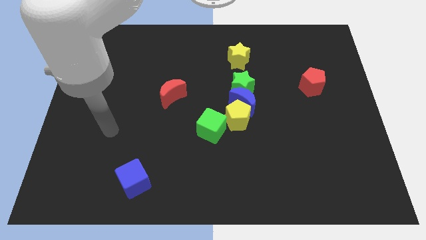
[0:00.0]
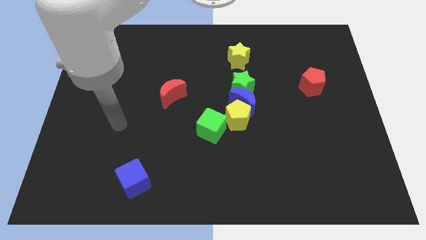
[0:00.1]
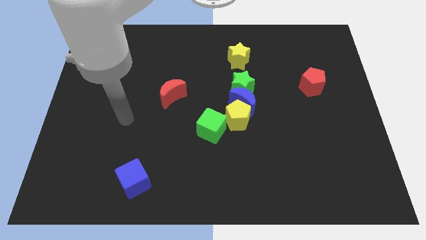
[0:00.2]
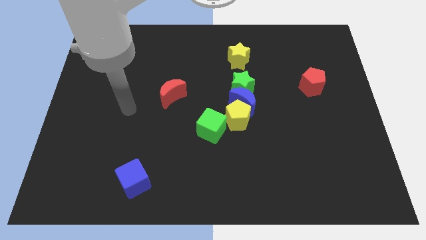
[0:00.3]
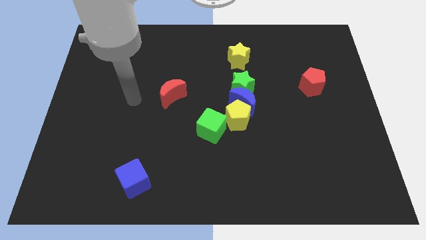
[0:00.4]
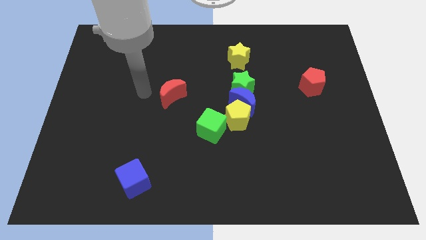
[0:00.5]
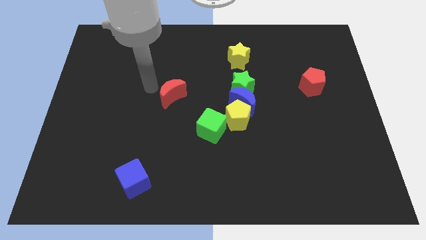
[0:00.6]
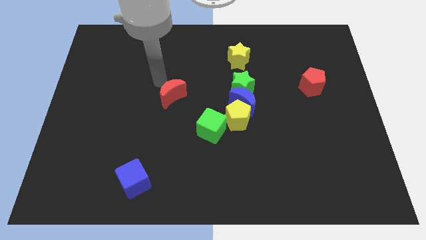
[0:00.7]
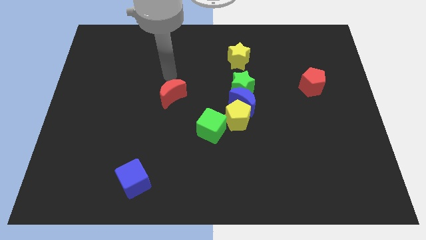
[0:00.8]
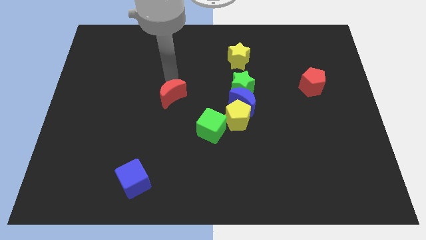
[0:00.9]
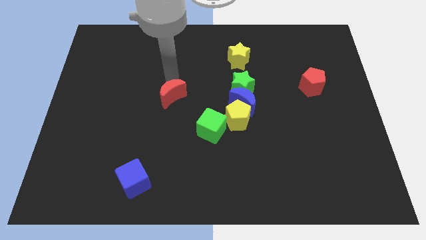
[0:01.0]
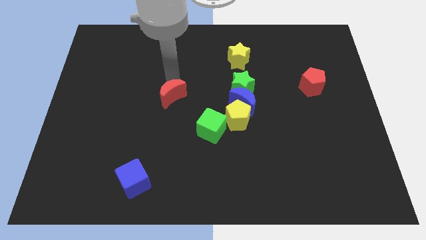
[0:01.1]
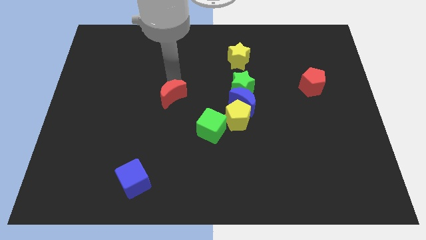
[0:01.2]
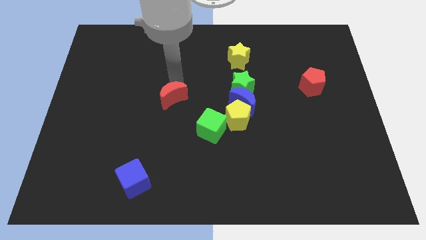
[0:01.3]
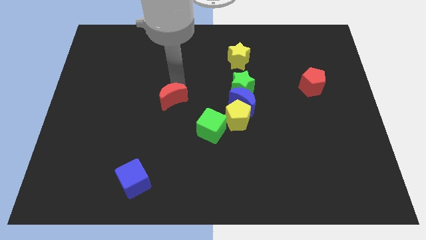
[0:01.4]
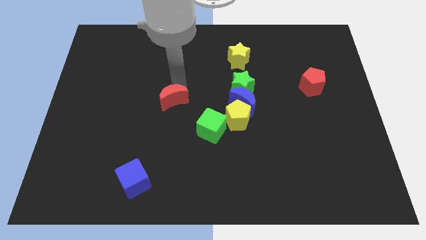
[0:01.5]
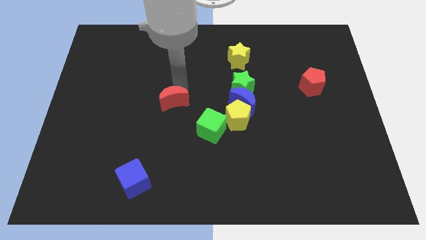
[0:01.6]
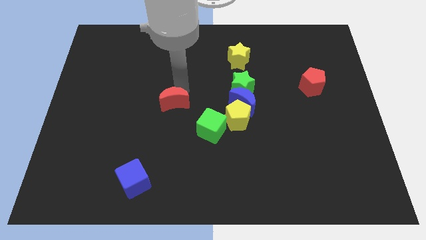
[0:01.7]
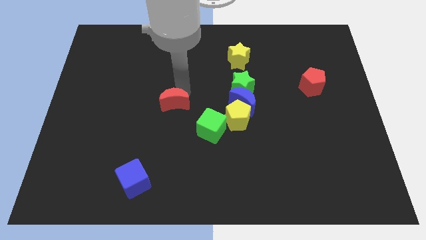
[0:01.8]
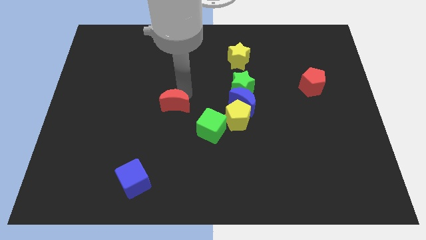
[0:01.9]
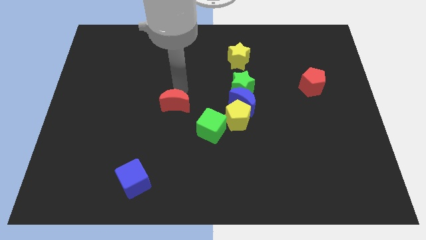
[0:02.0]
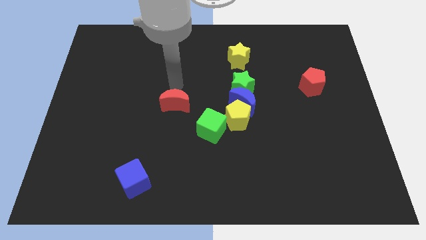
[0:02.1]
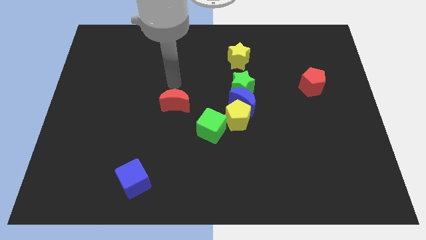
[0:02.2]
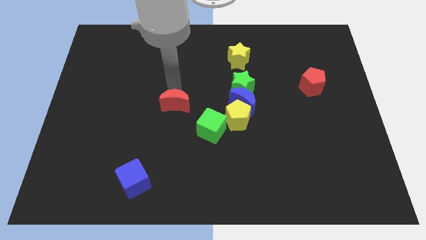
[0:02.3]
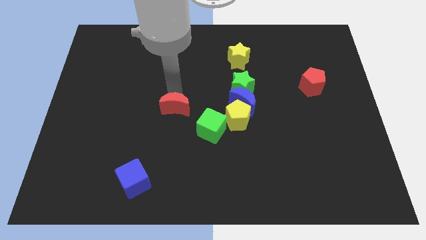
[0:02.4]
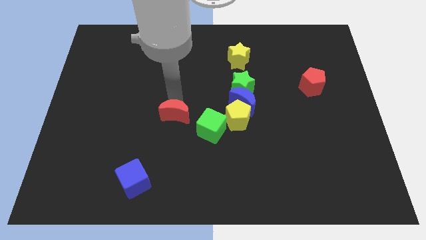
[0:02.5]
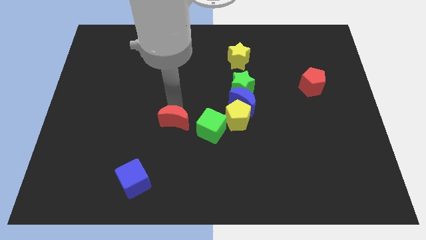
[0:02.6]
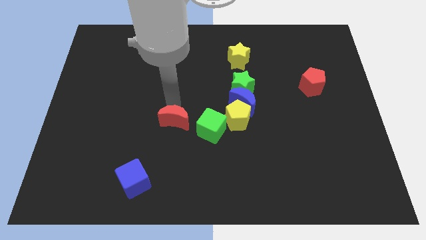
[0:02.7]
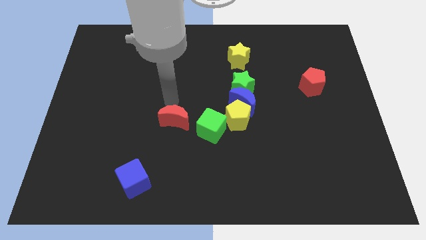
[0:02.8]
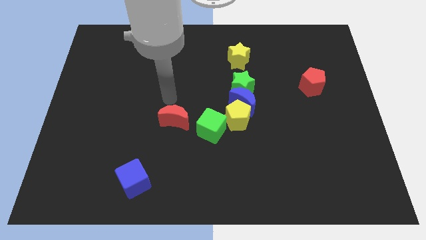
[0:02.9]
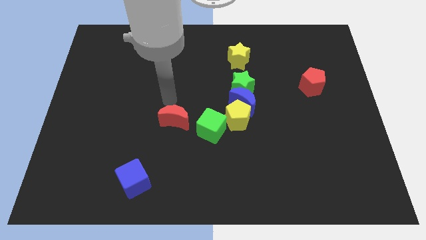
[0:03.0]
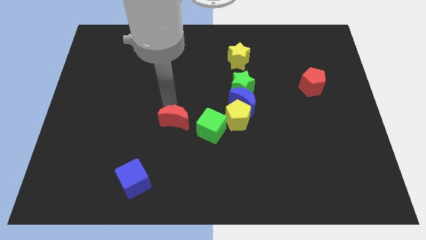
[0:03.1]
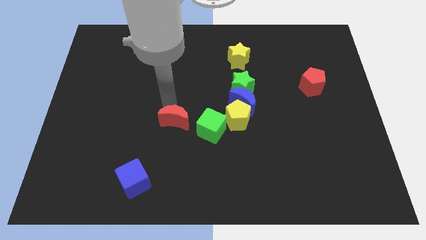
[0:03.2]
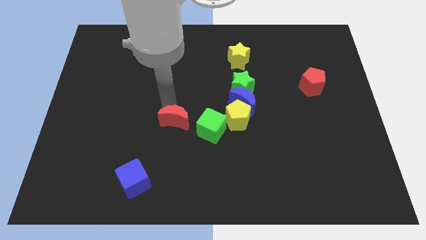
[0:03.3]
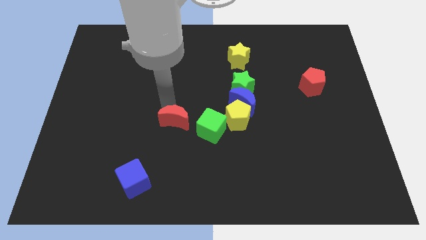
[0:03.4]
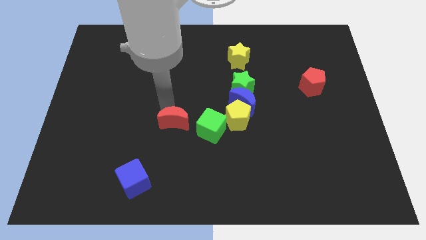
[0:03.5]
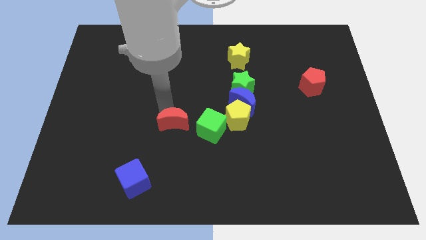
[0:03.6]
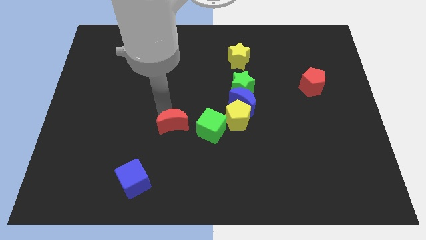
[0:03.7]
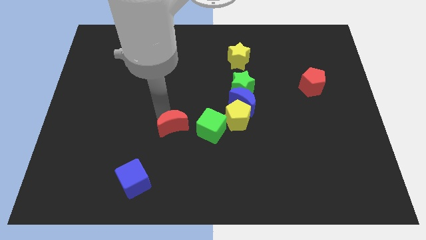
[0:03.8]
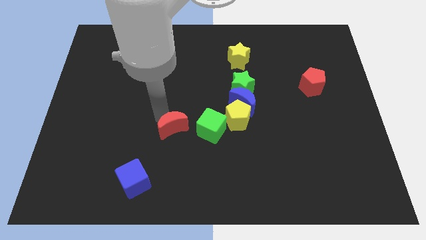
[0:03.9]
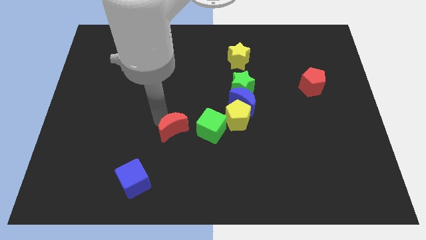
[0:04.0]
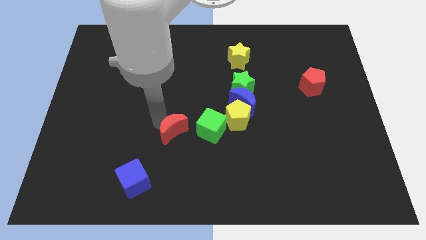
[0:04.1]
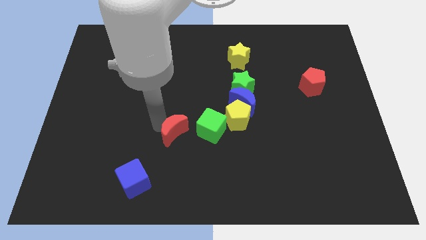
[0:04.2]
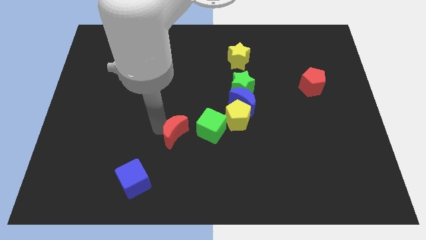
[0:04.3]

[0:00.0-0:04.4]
slightly move the red moon down and right

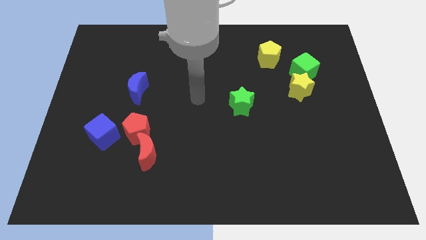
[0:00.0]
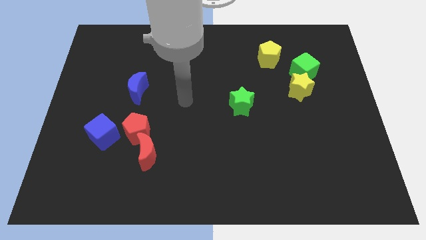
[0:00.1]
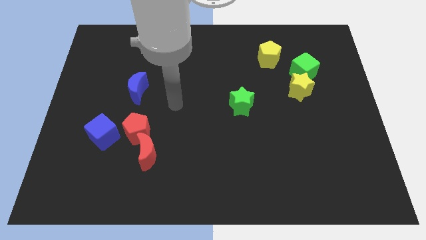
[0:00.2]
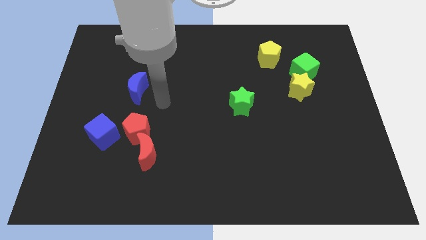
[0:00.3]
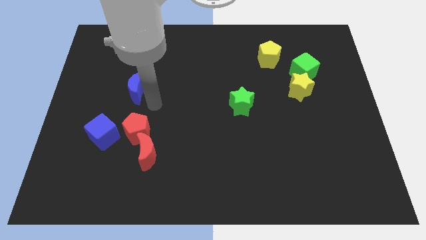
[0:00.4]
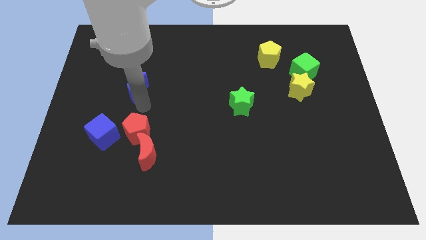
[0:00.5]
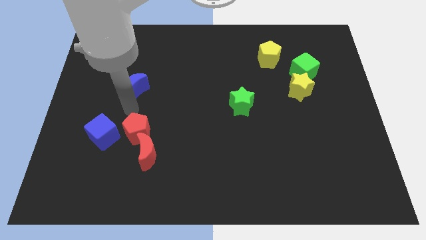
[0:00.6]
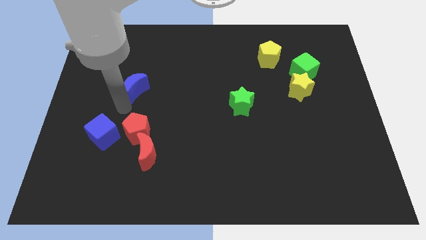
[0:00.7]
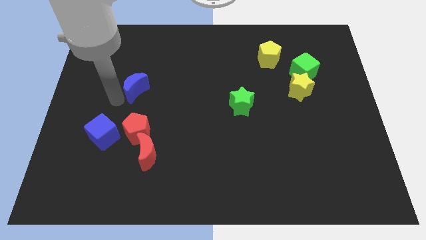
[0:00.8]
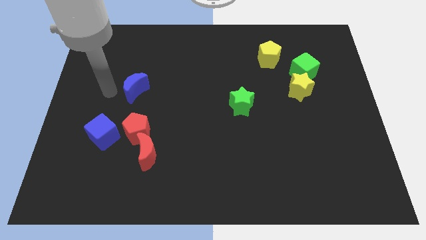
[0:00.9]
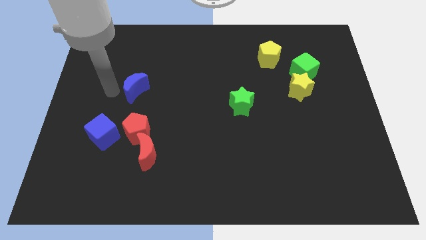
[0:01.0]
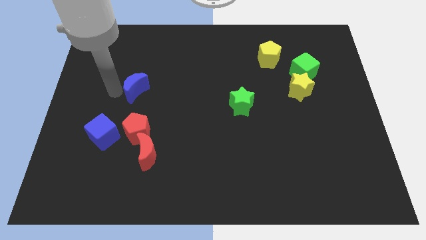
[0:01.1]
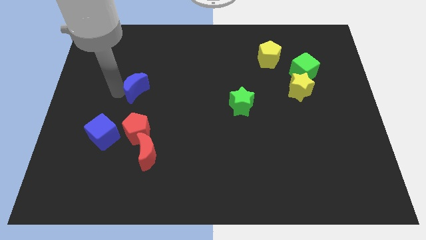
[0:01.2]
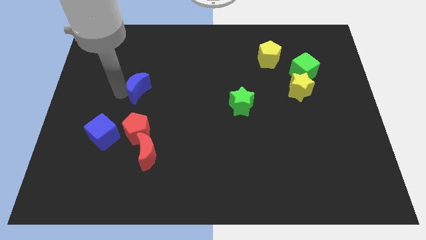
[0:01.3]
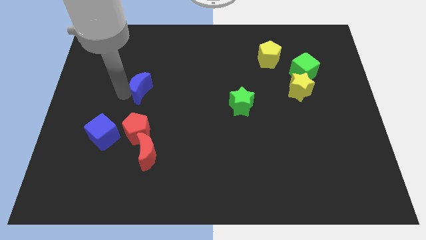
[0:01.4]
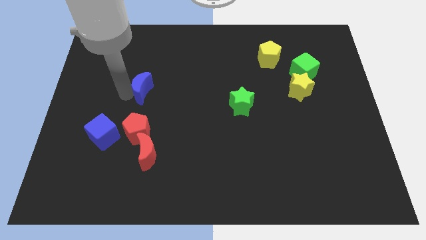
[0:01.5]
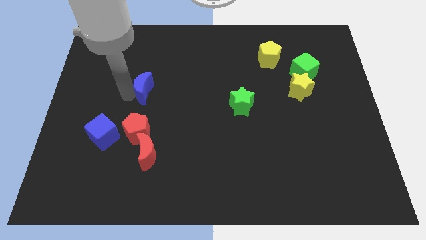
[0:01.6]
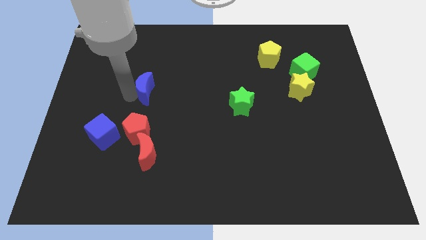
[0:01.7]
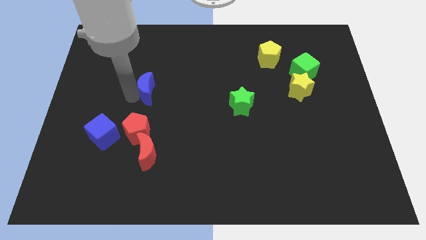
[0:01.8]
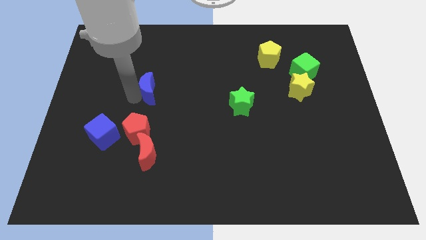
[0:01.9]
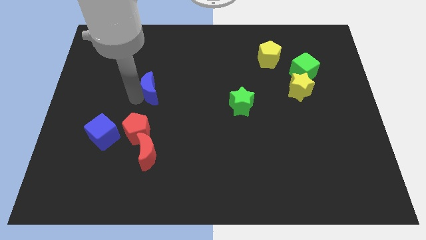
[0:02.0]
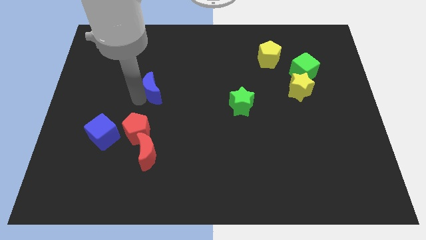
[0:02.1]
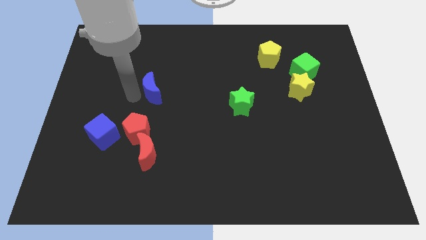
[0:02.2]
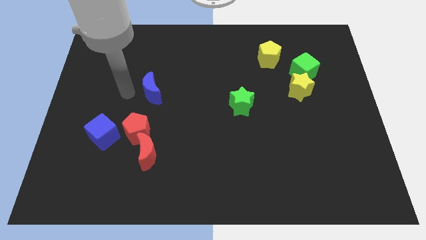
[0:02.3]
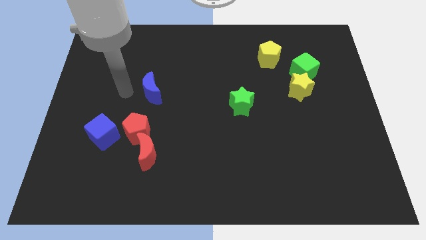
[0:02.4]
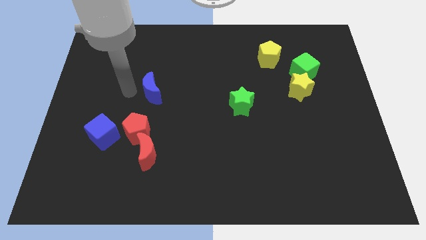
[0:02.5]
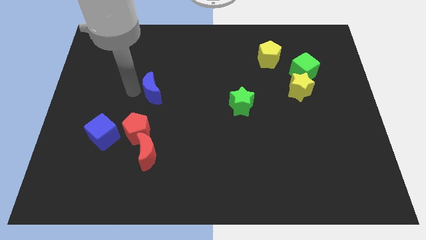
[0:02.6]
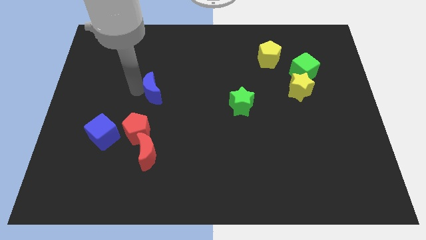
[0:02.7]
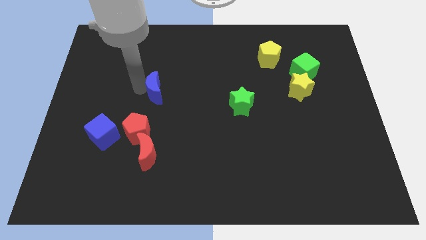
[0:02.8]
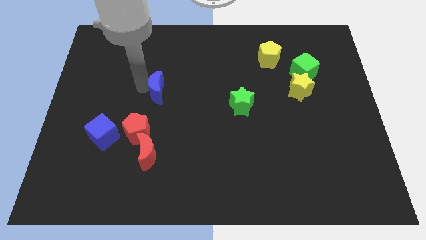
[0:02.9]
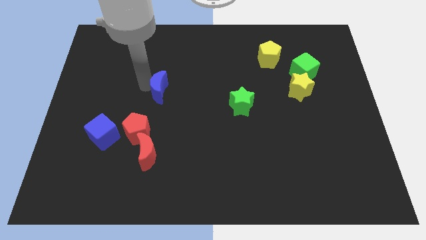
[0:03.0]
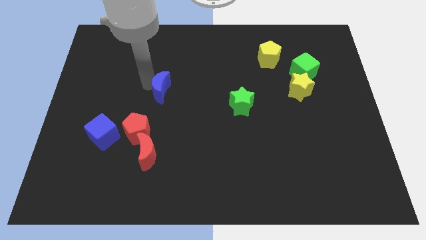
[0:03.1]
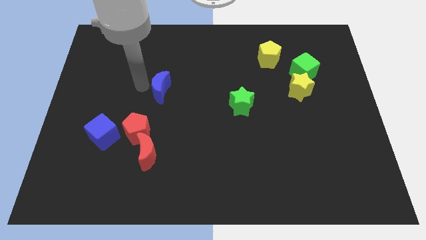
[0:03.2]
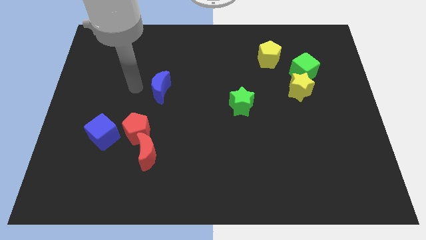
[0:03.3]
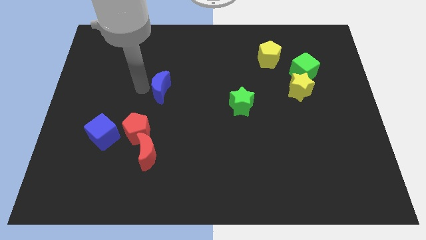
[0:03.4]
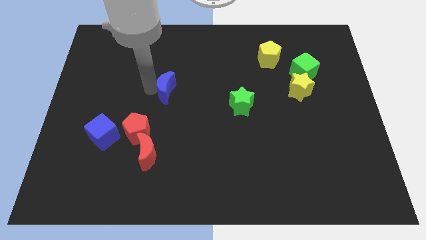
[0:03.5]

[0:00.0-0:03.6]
push the blue moon slightly to the right
